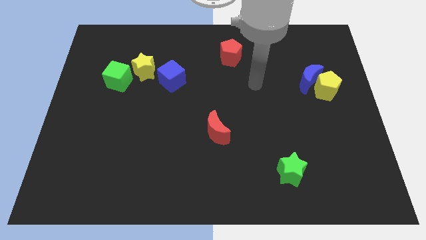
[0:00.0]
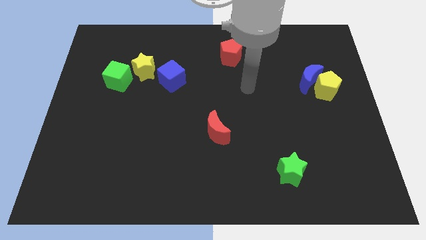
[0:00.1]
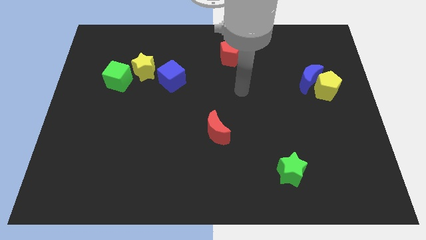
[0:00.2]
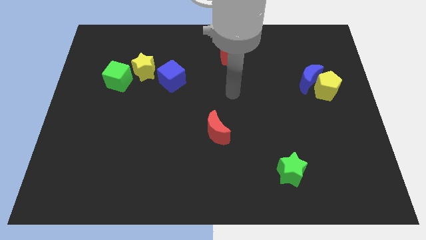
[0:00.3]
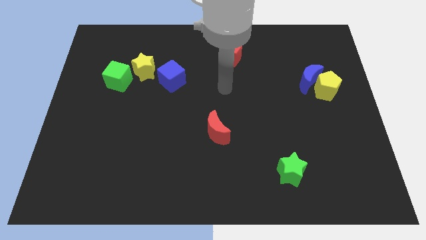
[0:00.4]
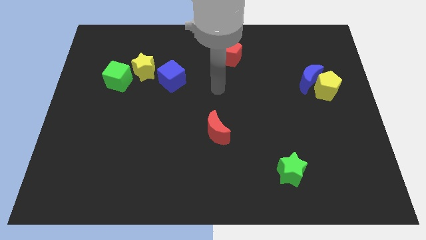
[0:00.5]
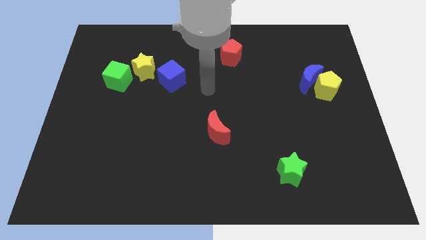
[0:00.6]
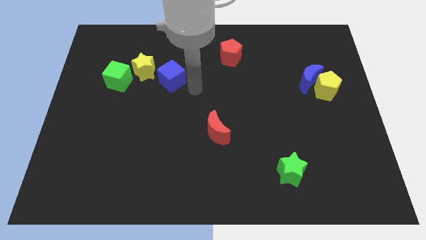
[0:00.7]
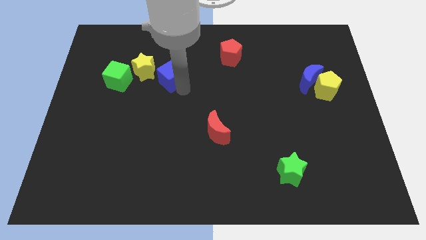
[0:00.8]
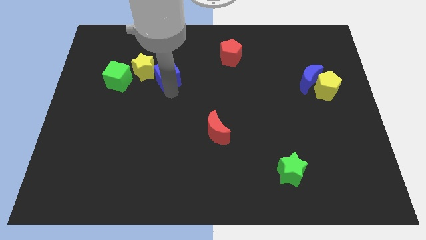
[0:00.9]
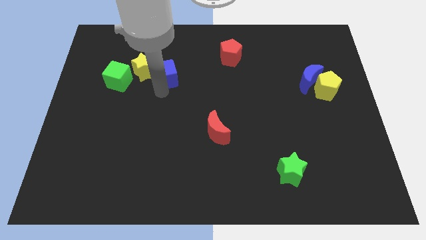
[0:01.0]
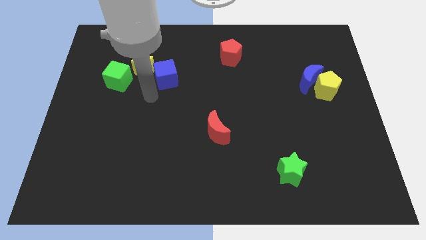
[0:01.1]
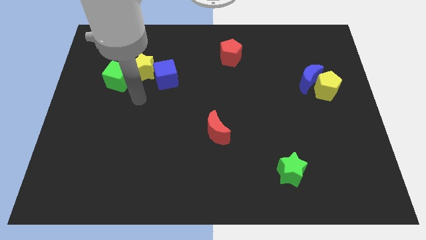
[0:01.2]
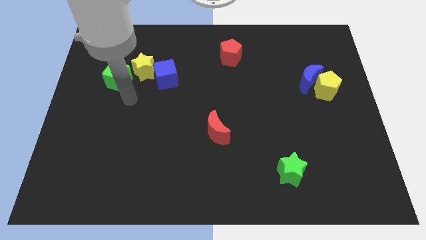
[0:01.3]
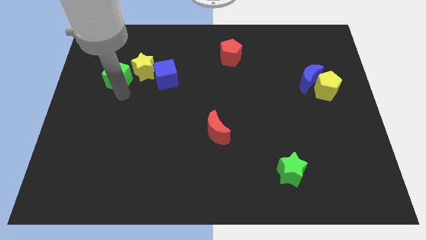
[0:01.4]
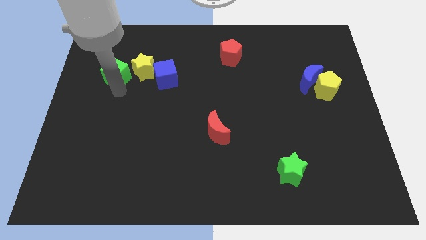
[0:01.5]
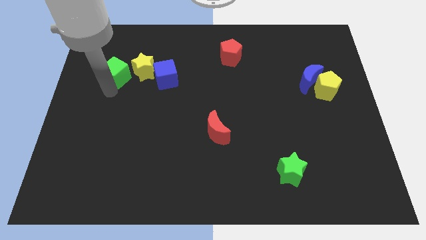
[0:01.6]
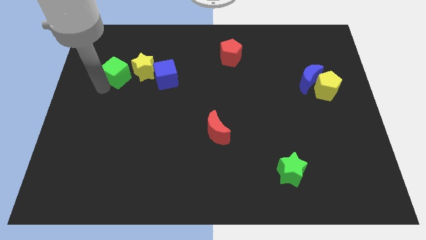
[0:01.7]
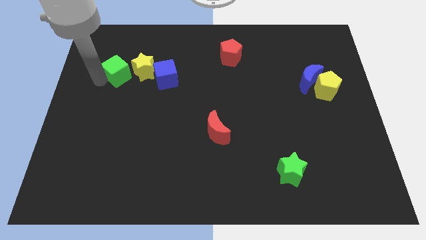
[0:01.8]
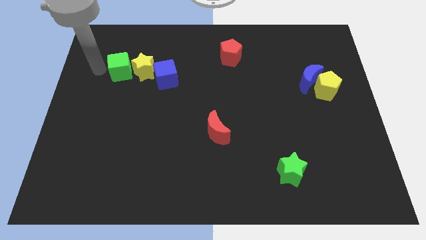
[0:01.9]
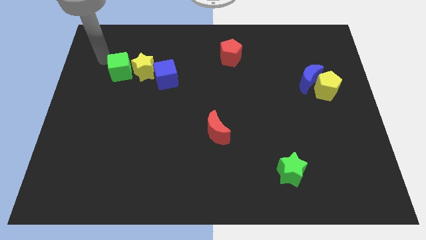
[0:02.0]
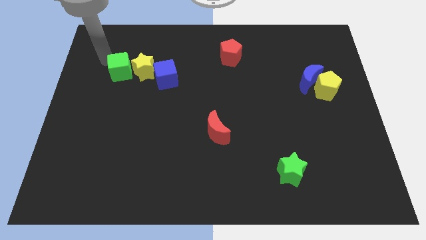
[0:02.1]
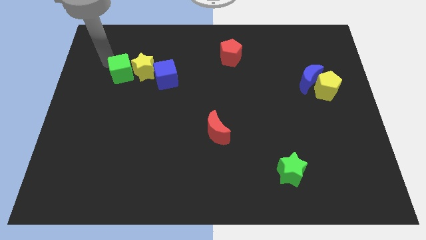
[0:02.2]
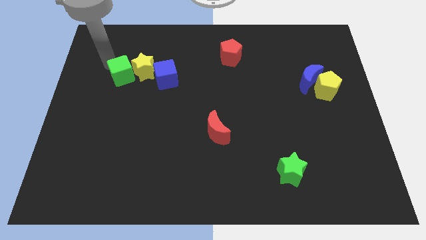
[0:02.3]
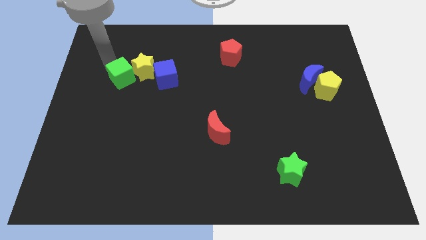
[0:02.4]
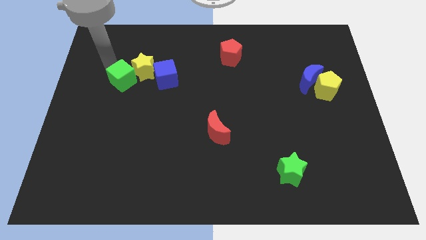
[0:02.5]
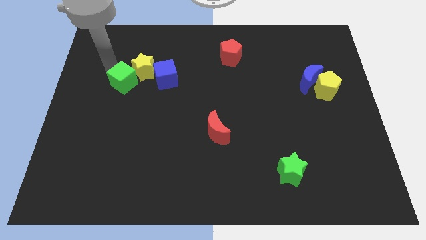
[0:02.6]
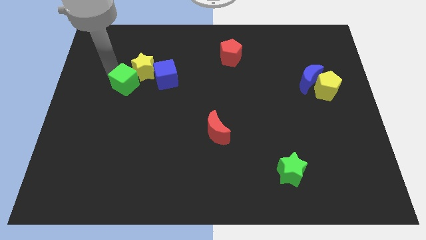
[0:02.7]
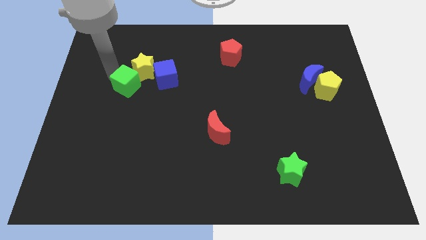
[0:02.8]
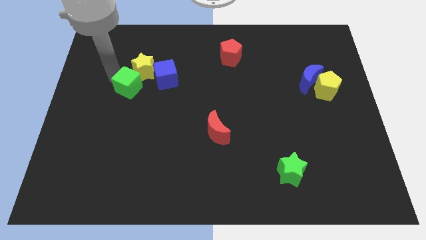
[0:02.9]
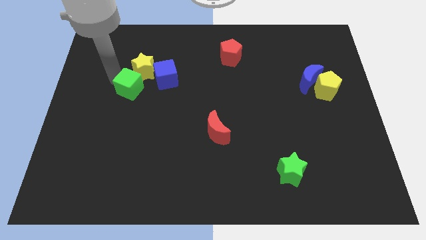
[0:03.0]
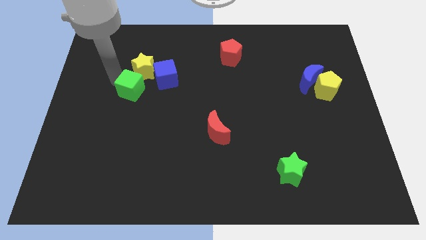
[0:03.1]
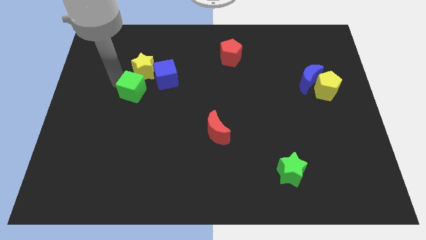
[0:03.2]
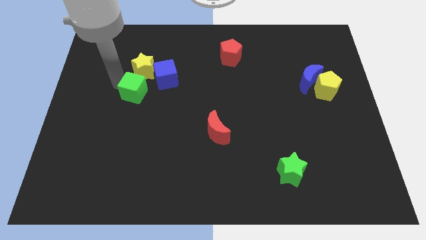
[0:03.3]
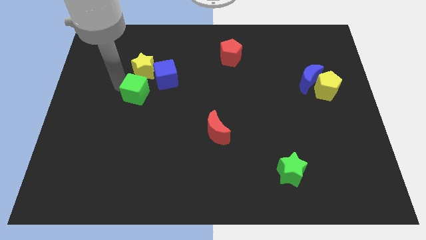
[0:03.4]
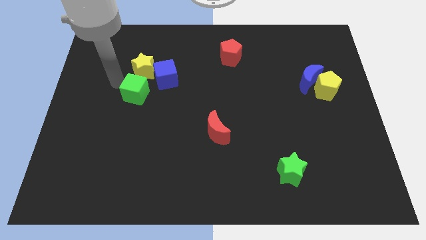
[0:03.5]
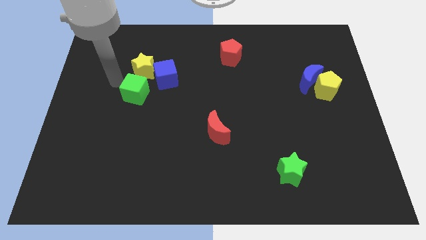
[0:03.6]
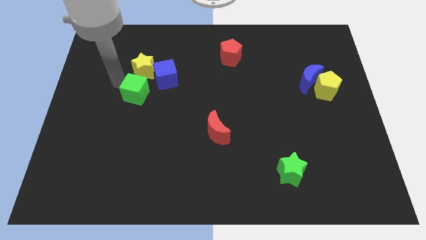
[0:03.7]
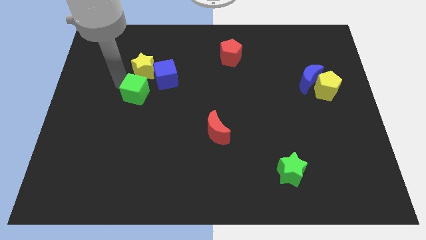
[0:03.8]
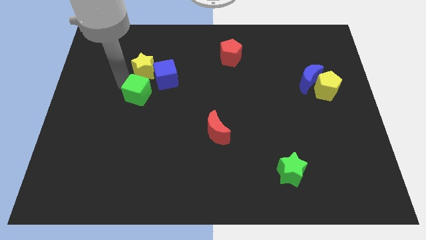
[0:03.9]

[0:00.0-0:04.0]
slide the green cube slightly diagonally downwards and right

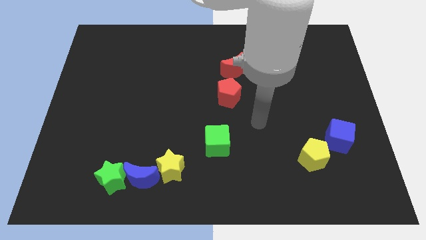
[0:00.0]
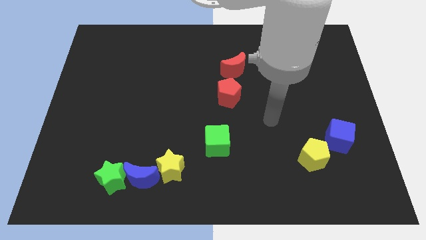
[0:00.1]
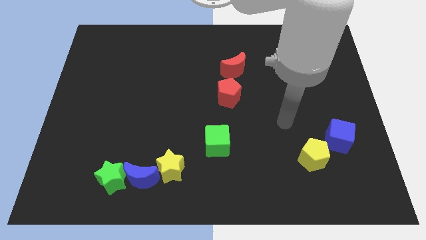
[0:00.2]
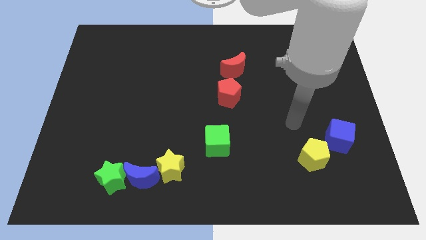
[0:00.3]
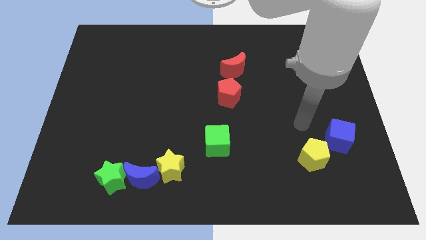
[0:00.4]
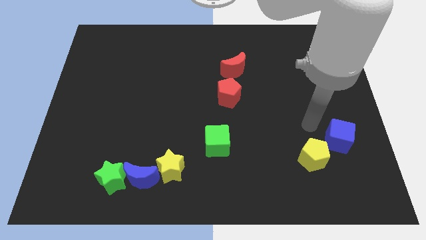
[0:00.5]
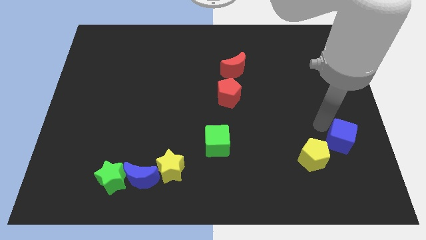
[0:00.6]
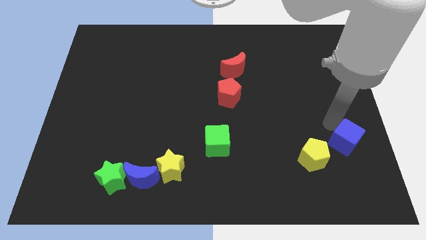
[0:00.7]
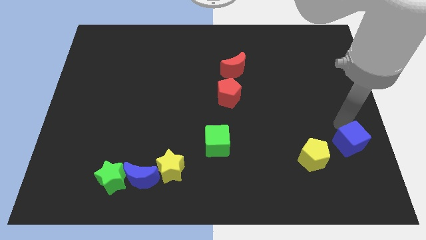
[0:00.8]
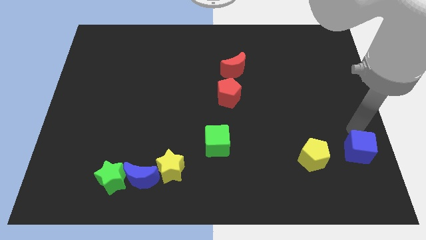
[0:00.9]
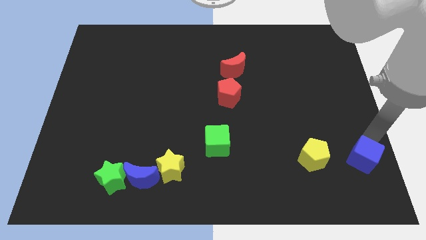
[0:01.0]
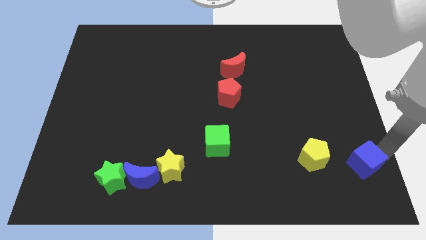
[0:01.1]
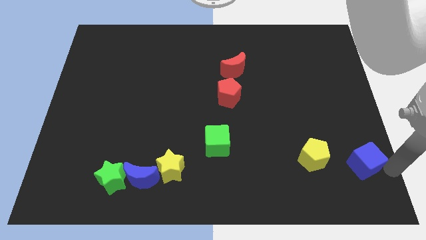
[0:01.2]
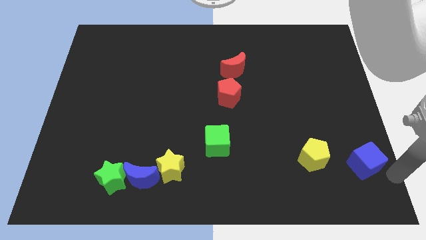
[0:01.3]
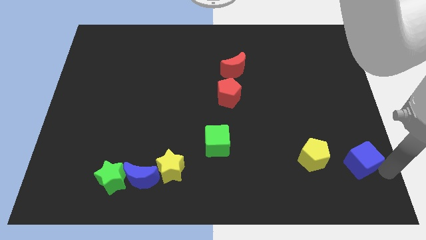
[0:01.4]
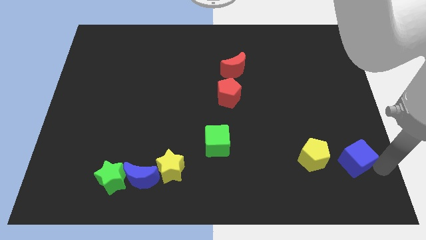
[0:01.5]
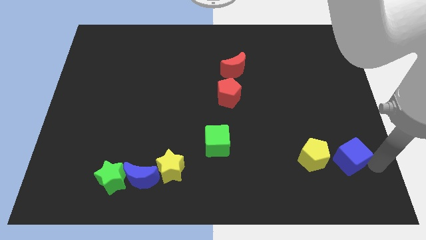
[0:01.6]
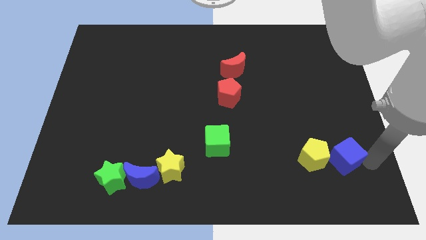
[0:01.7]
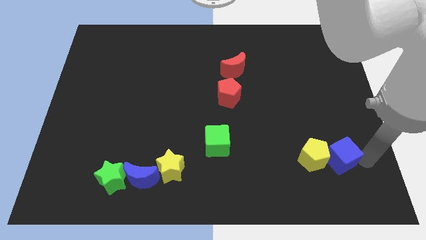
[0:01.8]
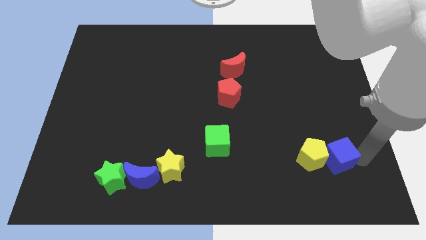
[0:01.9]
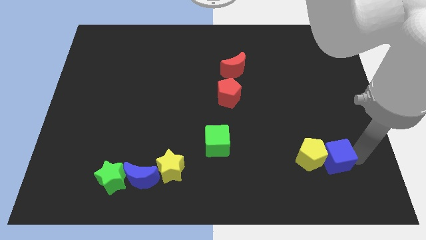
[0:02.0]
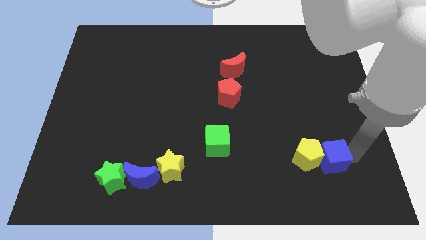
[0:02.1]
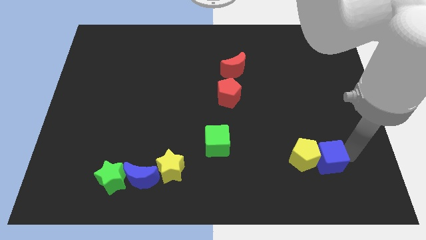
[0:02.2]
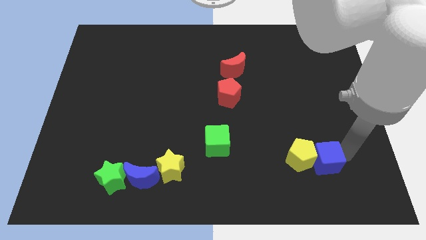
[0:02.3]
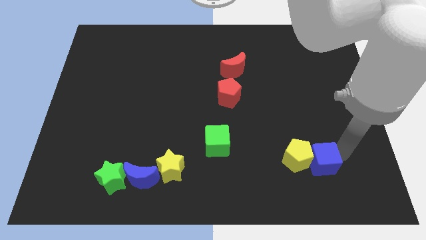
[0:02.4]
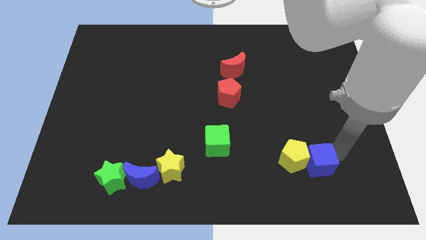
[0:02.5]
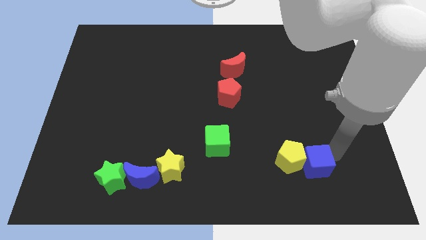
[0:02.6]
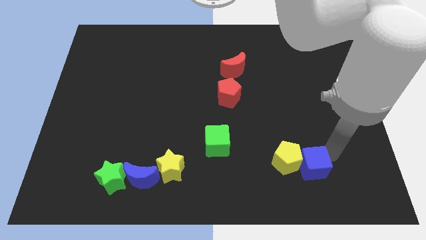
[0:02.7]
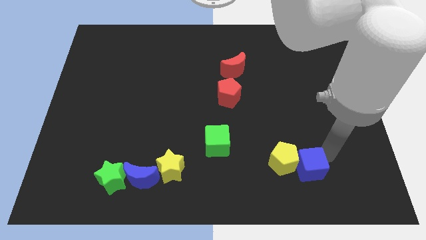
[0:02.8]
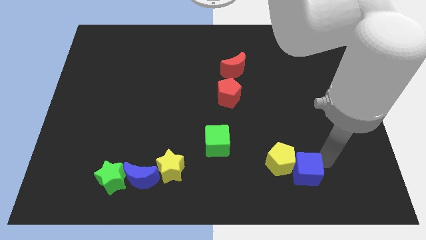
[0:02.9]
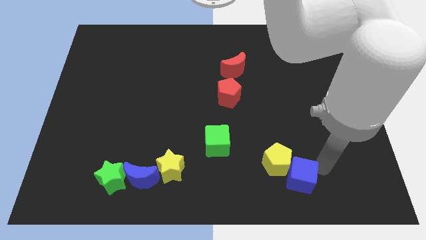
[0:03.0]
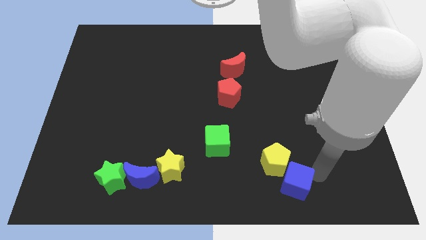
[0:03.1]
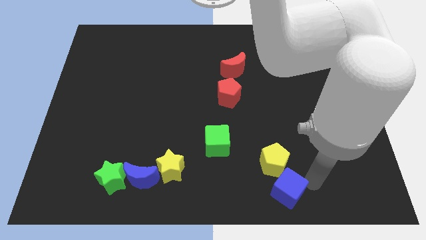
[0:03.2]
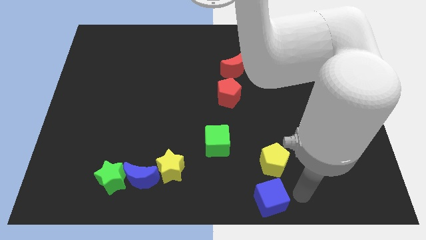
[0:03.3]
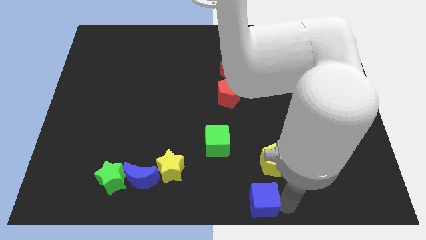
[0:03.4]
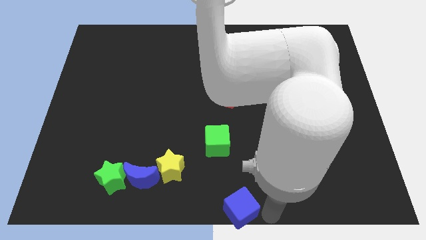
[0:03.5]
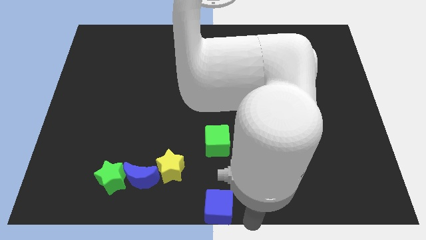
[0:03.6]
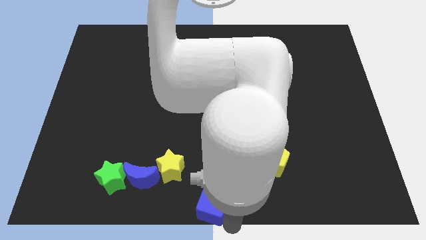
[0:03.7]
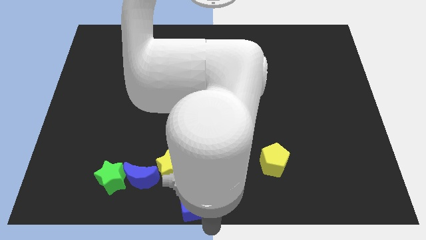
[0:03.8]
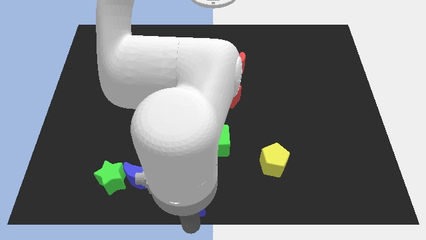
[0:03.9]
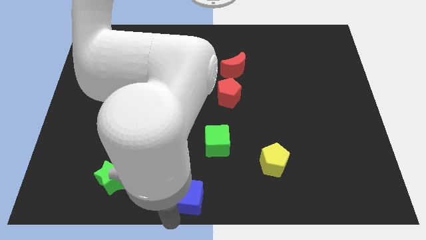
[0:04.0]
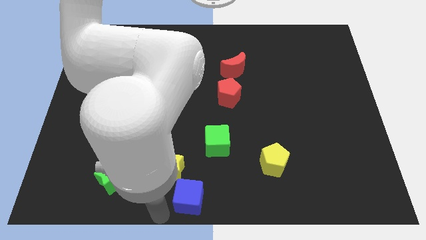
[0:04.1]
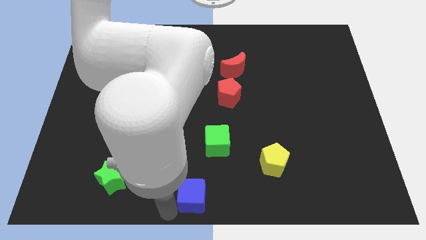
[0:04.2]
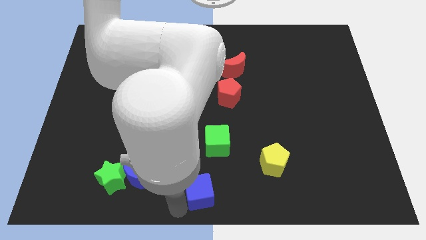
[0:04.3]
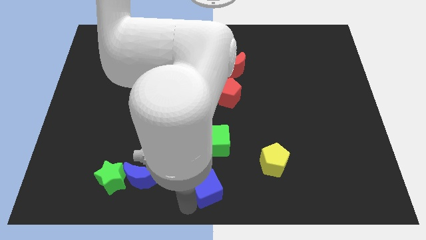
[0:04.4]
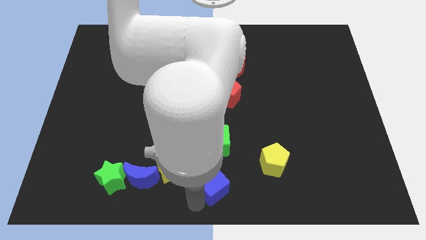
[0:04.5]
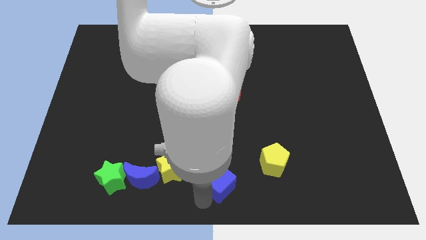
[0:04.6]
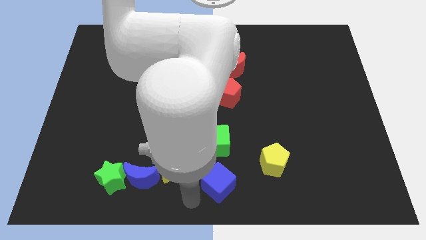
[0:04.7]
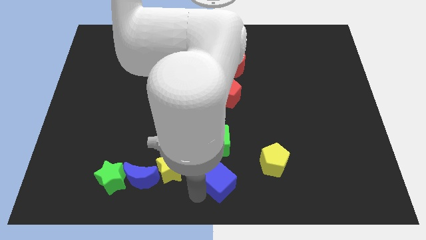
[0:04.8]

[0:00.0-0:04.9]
slightly slide the blue cube to the left
